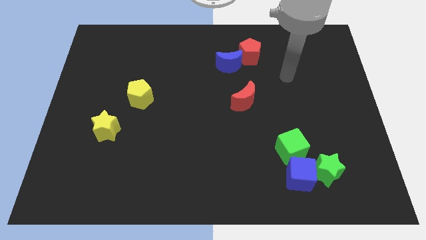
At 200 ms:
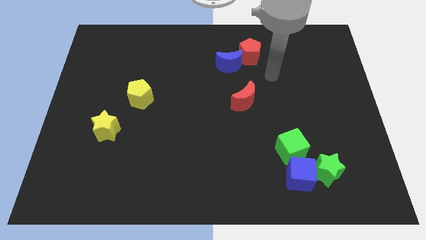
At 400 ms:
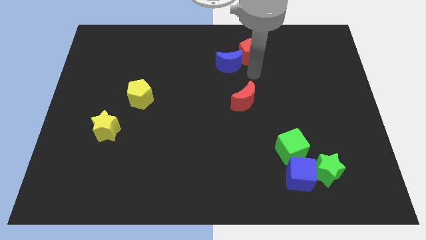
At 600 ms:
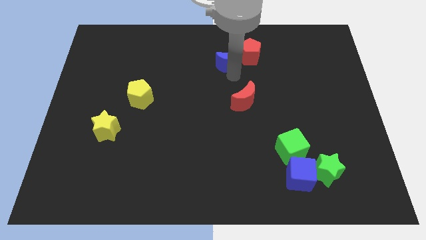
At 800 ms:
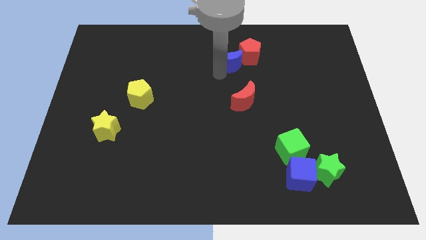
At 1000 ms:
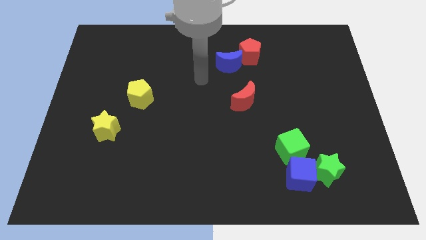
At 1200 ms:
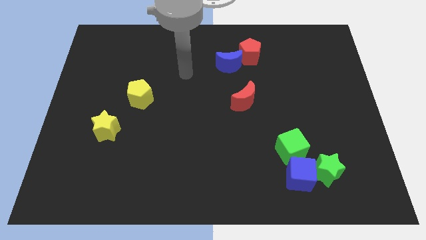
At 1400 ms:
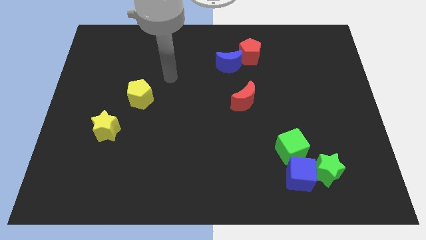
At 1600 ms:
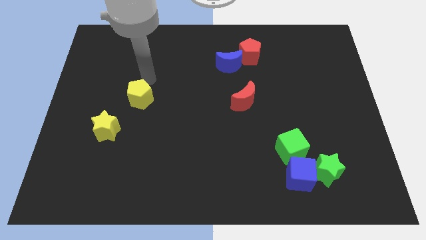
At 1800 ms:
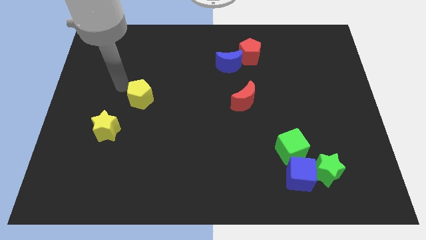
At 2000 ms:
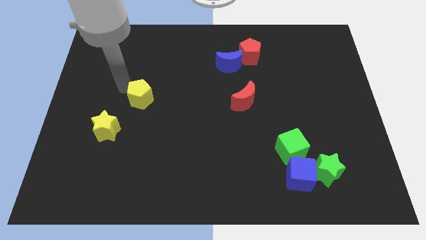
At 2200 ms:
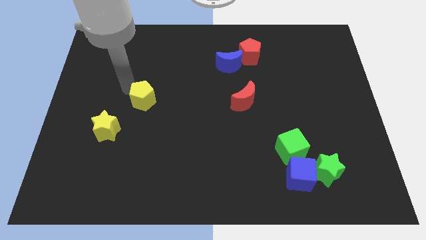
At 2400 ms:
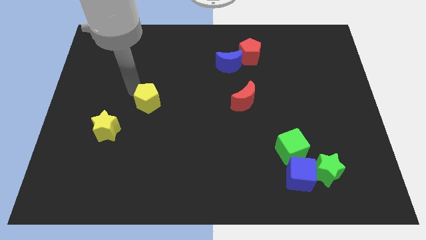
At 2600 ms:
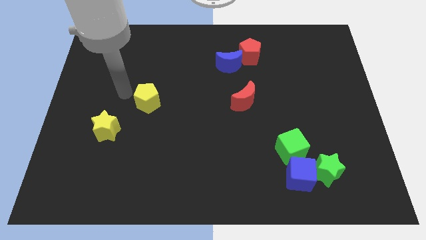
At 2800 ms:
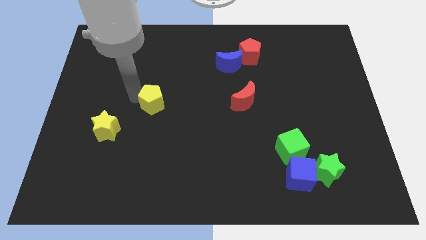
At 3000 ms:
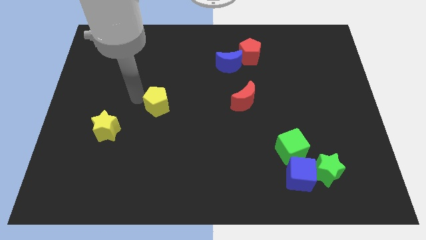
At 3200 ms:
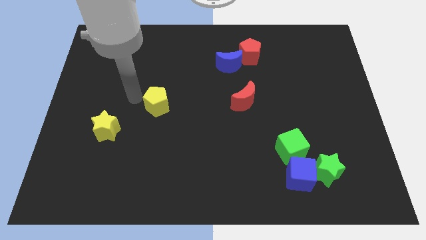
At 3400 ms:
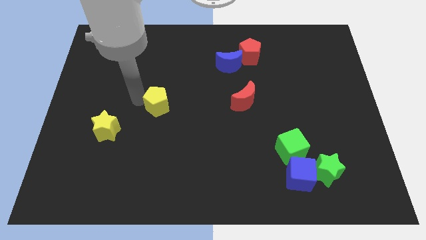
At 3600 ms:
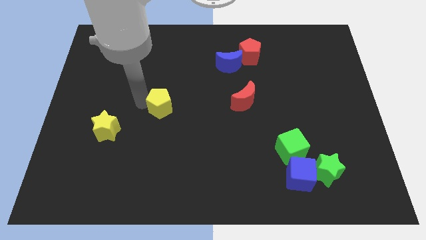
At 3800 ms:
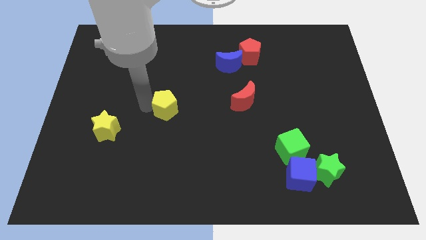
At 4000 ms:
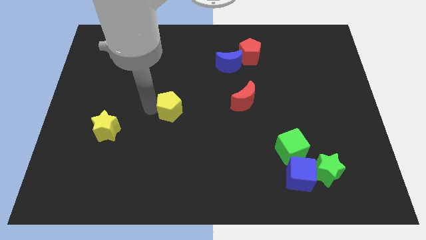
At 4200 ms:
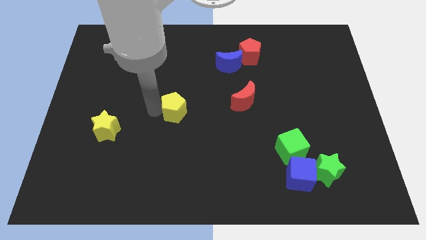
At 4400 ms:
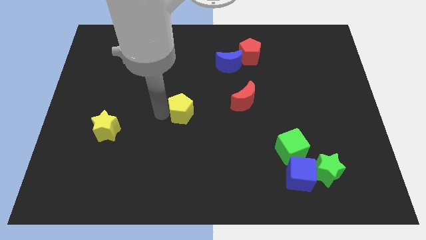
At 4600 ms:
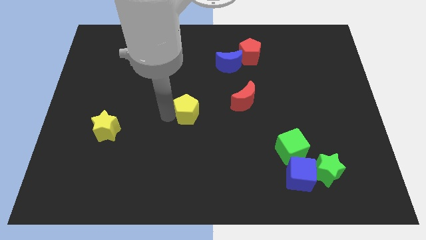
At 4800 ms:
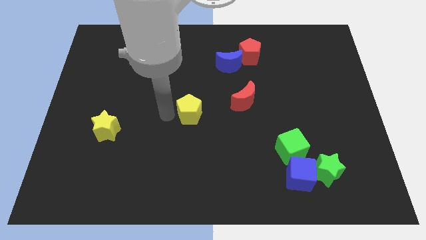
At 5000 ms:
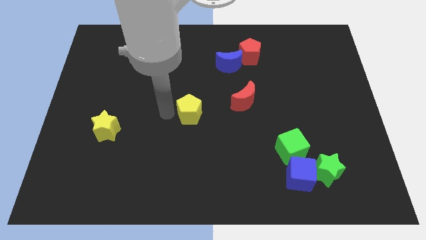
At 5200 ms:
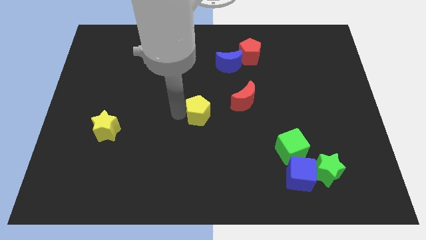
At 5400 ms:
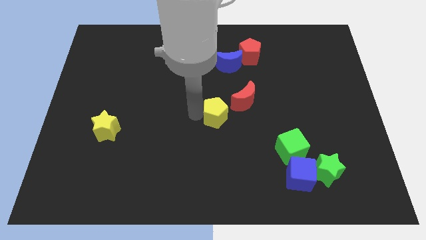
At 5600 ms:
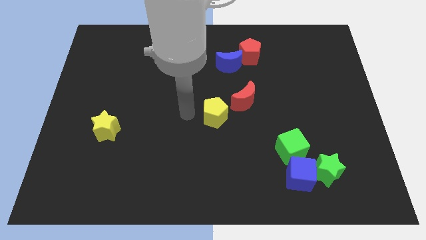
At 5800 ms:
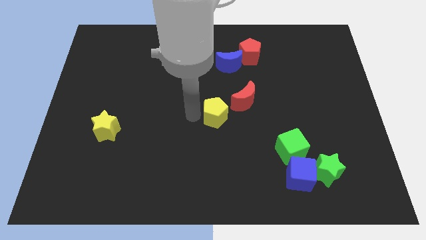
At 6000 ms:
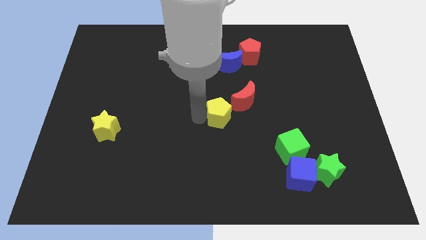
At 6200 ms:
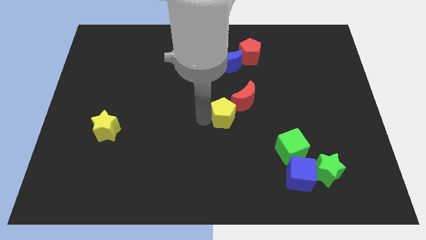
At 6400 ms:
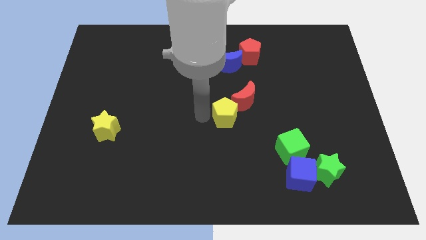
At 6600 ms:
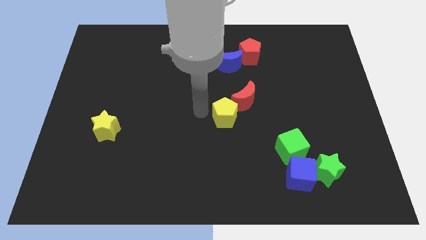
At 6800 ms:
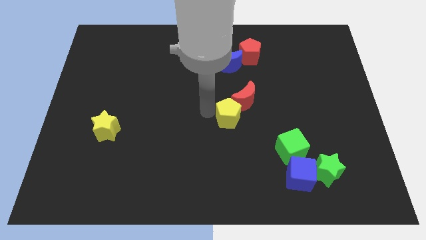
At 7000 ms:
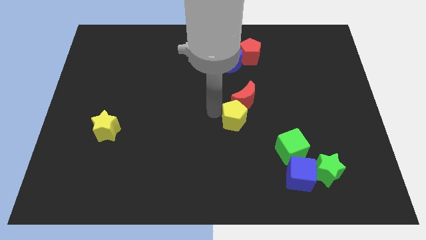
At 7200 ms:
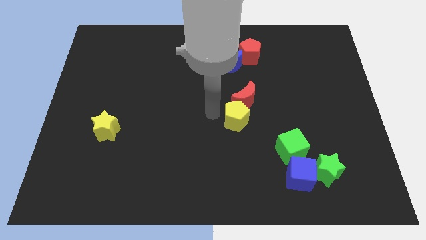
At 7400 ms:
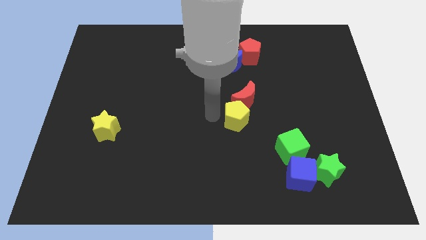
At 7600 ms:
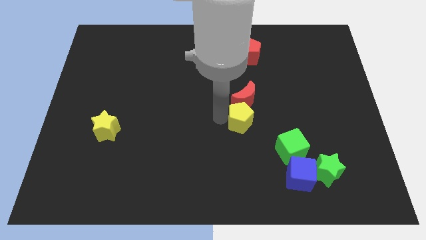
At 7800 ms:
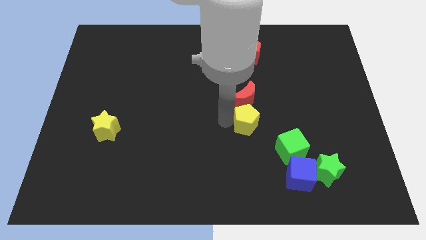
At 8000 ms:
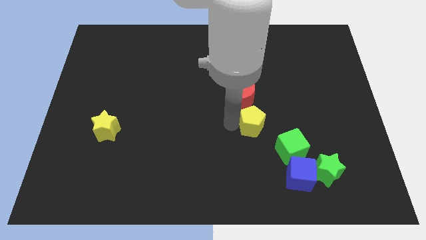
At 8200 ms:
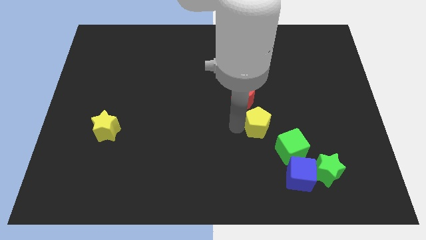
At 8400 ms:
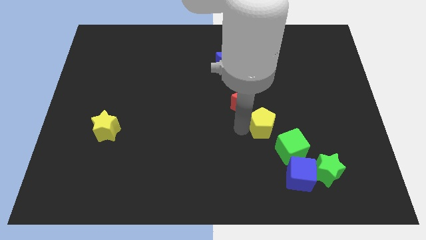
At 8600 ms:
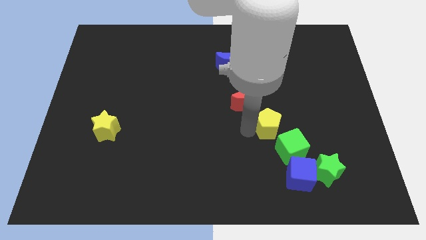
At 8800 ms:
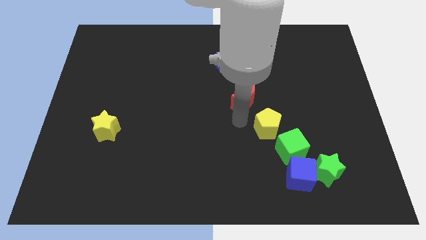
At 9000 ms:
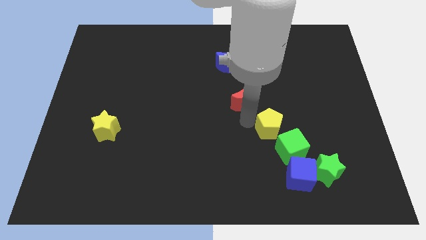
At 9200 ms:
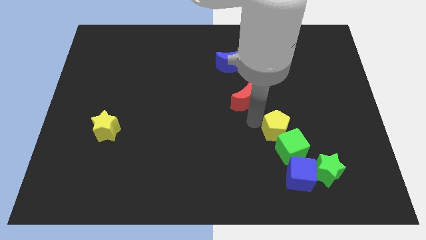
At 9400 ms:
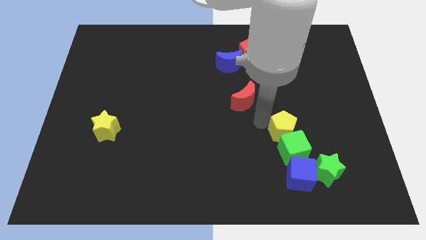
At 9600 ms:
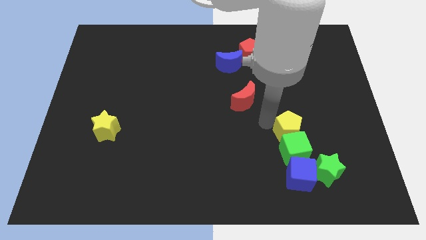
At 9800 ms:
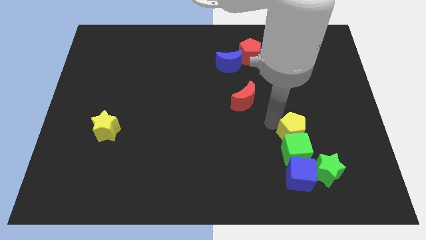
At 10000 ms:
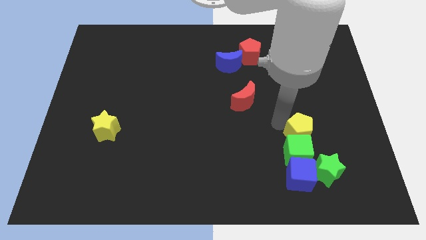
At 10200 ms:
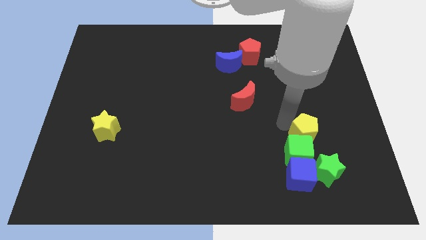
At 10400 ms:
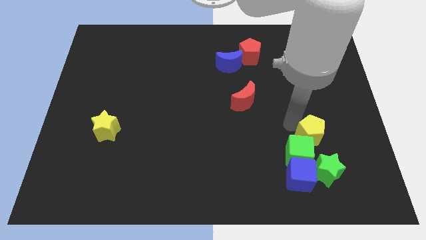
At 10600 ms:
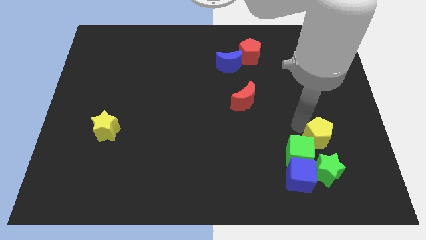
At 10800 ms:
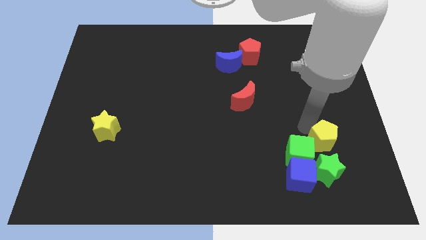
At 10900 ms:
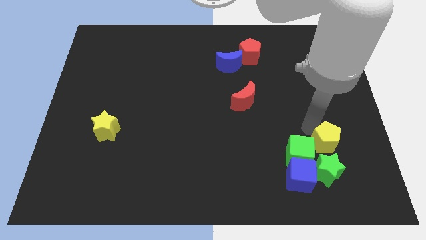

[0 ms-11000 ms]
push the yellow pentagon to the top right of the green star

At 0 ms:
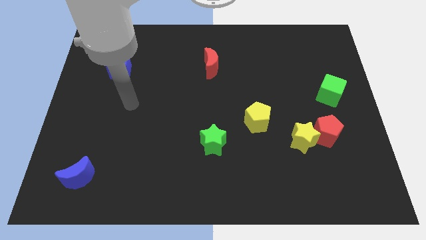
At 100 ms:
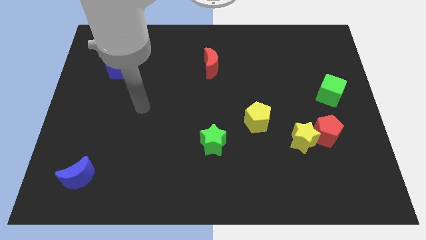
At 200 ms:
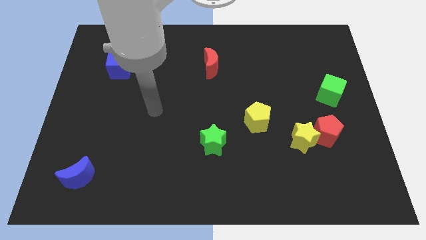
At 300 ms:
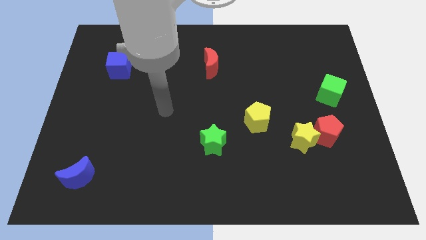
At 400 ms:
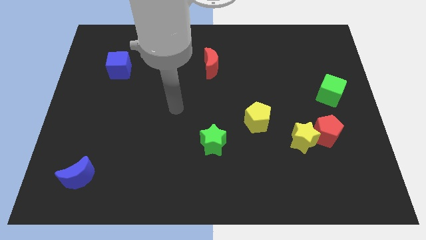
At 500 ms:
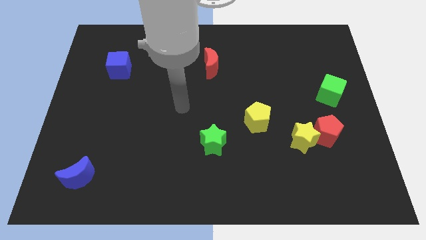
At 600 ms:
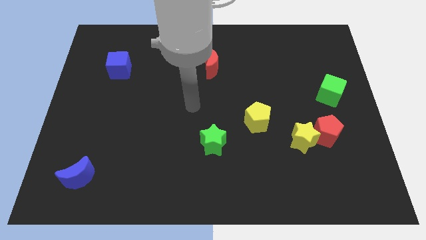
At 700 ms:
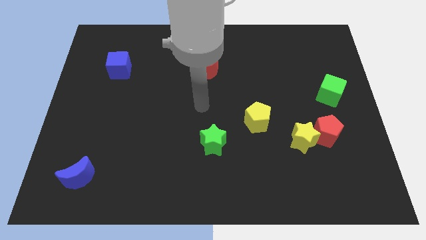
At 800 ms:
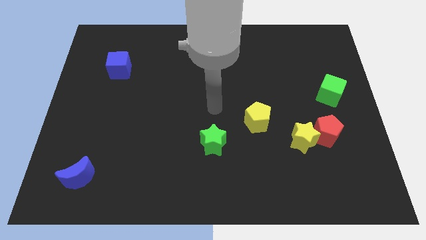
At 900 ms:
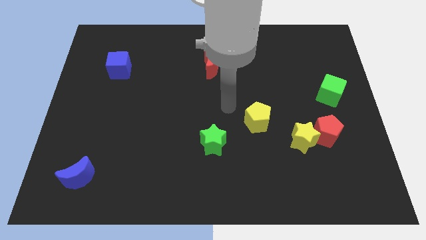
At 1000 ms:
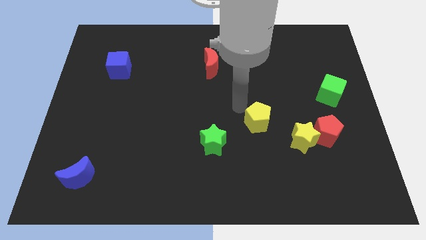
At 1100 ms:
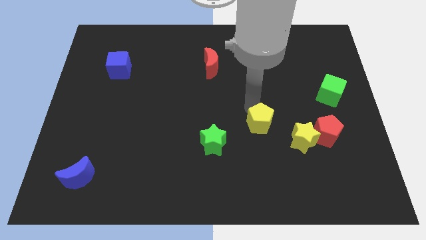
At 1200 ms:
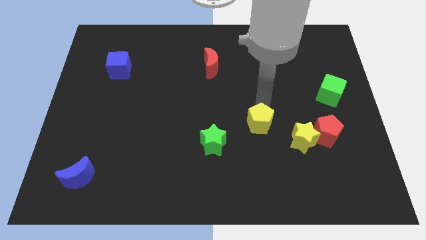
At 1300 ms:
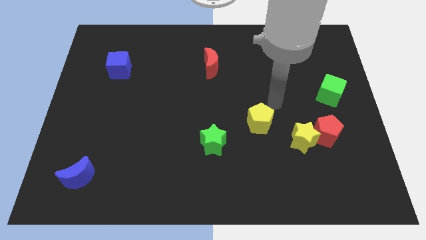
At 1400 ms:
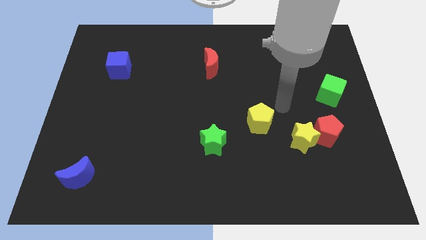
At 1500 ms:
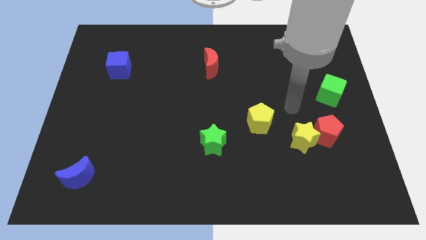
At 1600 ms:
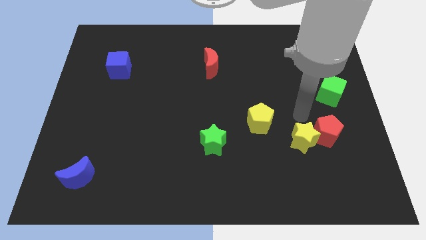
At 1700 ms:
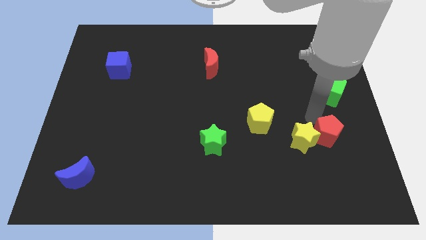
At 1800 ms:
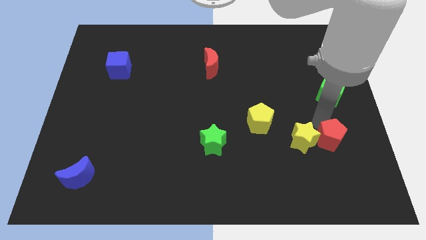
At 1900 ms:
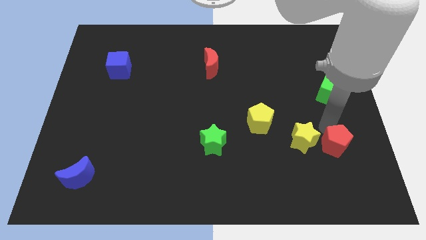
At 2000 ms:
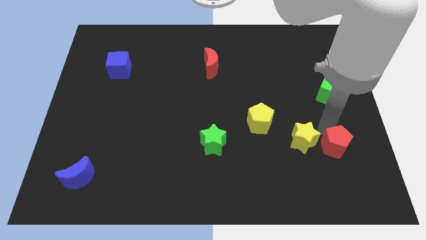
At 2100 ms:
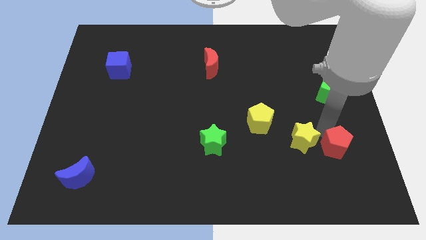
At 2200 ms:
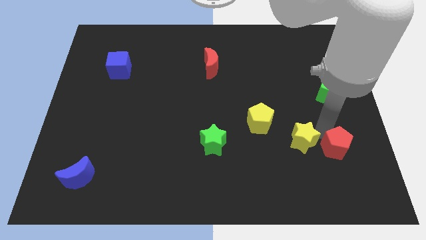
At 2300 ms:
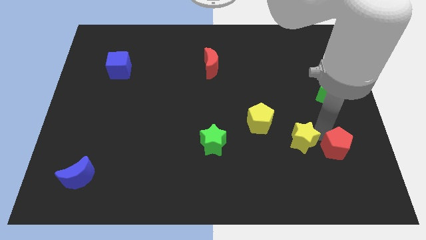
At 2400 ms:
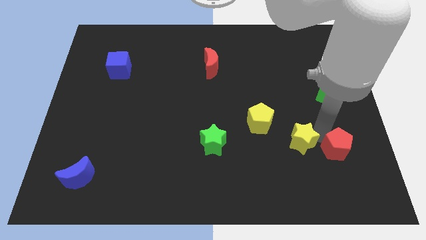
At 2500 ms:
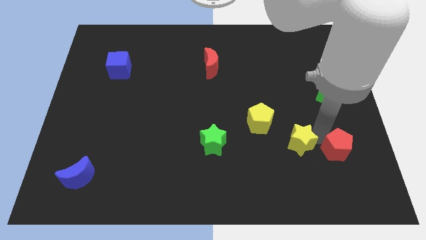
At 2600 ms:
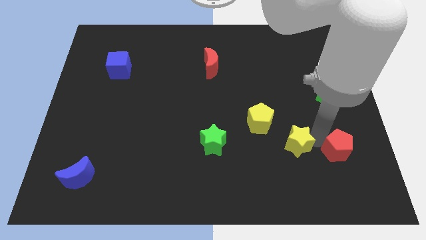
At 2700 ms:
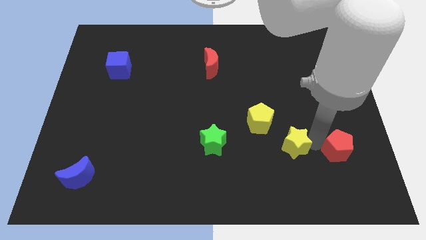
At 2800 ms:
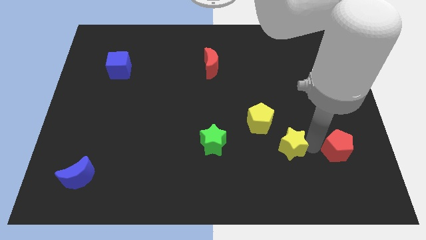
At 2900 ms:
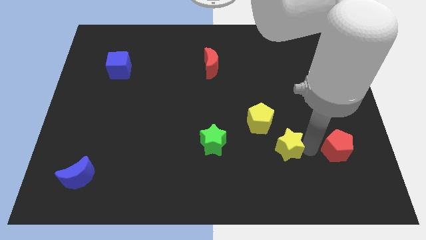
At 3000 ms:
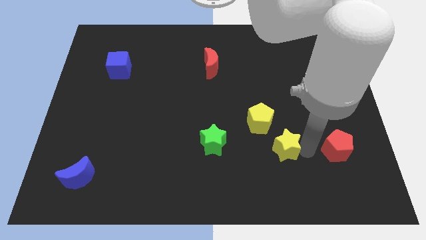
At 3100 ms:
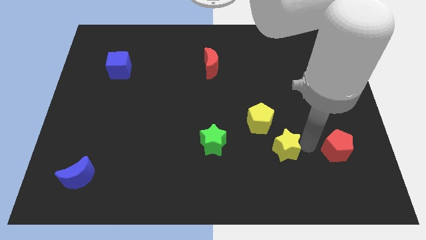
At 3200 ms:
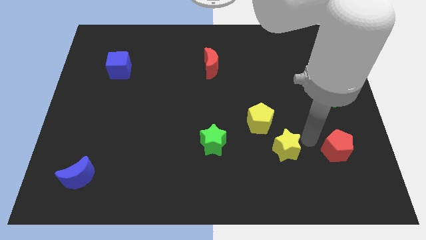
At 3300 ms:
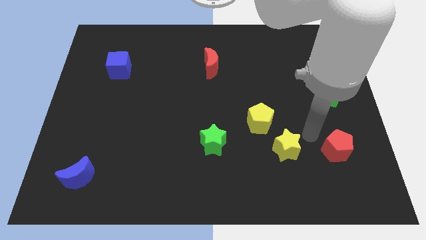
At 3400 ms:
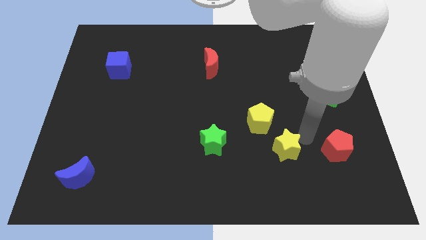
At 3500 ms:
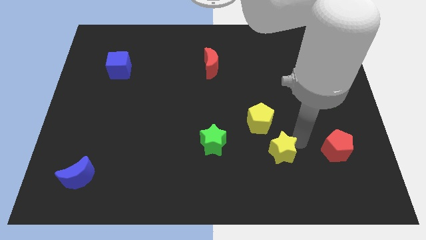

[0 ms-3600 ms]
put the yellow star to the bottom of the yellow pentagon
